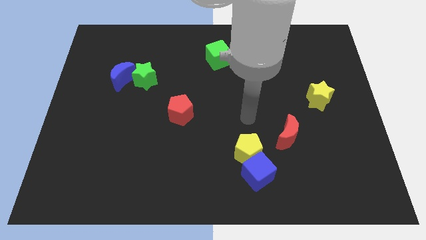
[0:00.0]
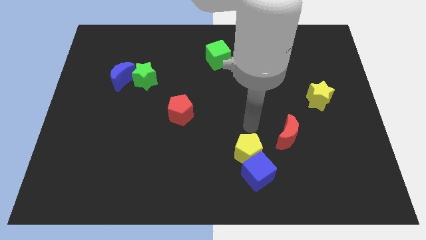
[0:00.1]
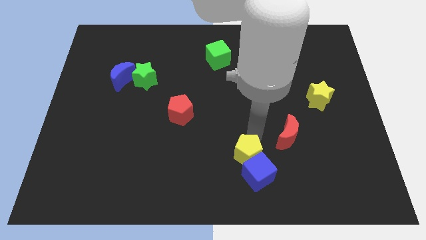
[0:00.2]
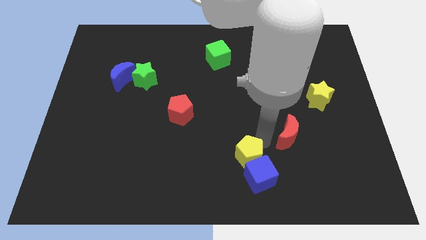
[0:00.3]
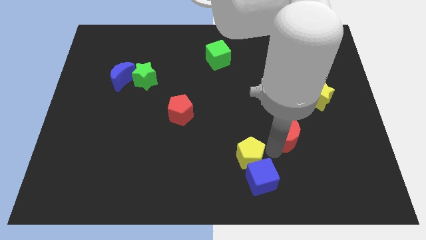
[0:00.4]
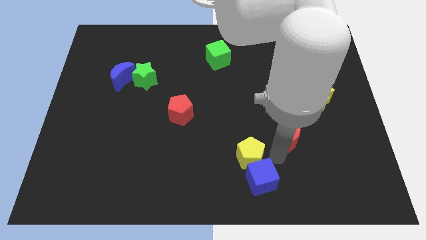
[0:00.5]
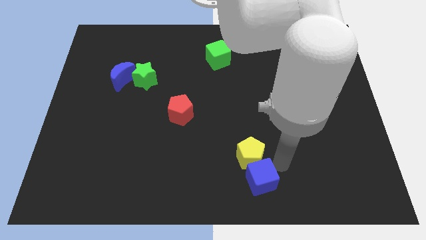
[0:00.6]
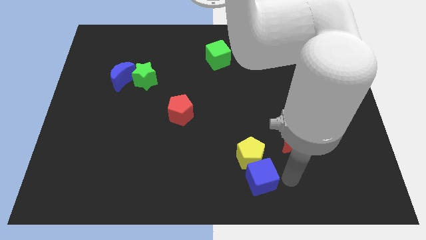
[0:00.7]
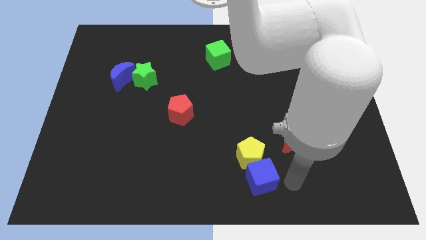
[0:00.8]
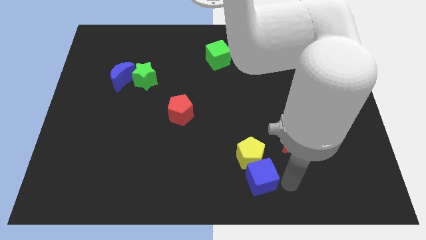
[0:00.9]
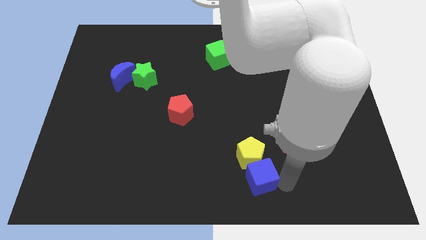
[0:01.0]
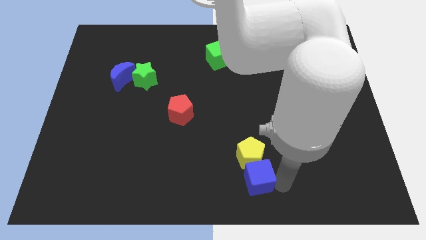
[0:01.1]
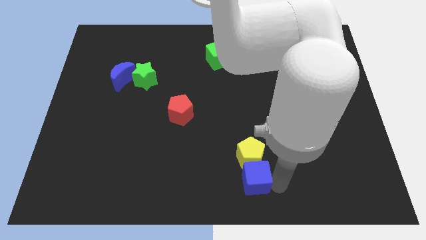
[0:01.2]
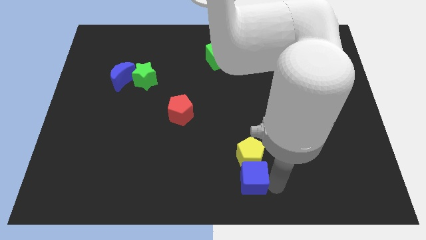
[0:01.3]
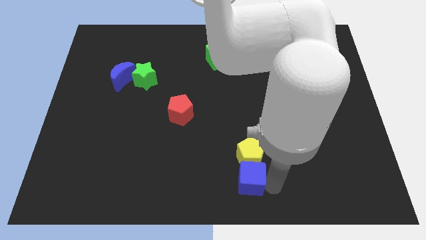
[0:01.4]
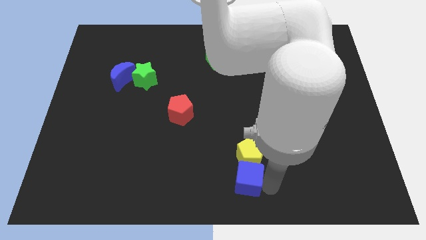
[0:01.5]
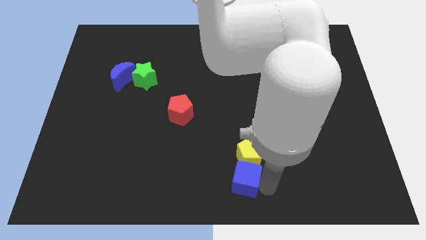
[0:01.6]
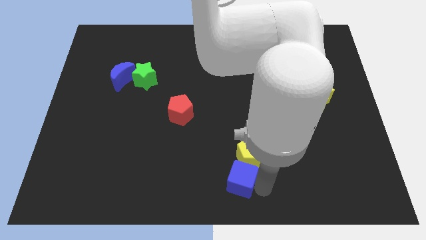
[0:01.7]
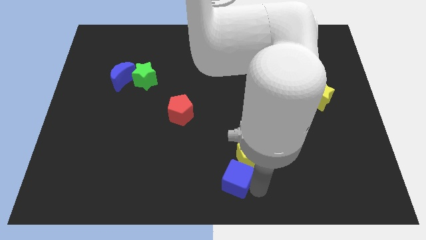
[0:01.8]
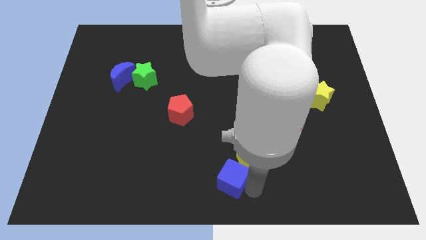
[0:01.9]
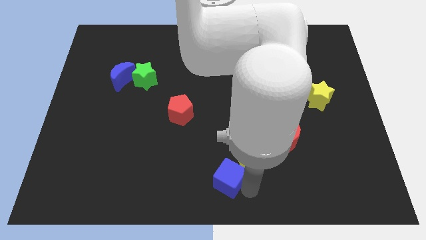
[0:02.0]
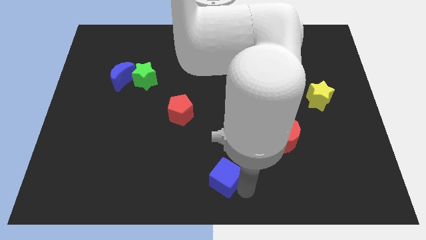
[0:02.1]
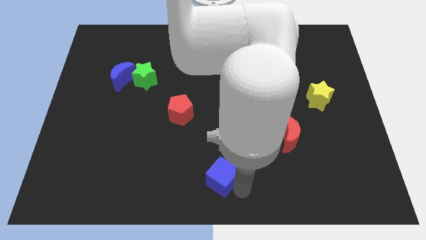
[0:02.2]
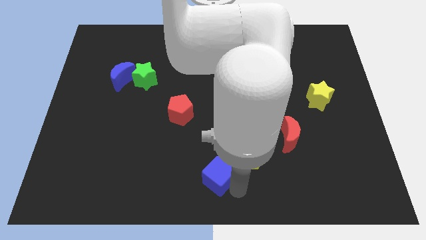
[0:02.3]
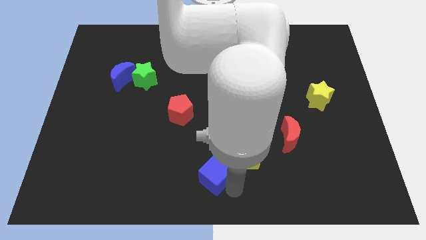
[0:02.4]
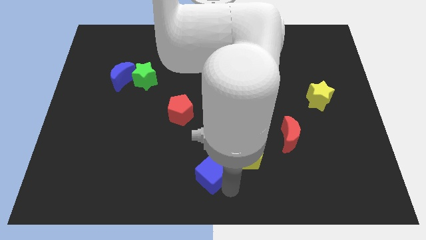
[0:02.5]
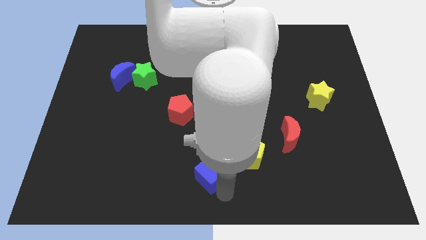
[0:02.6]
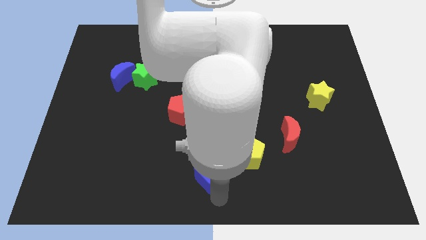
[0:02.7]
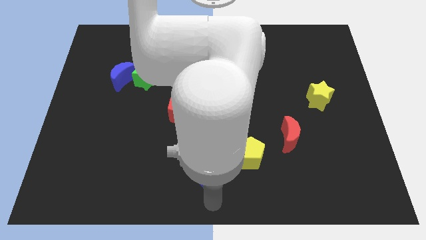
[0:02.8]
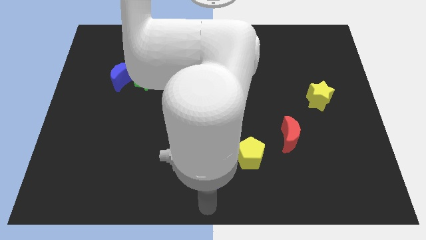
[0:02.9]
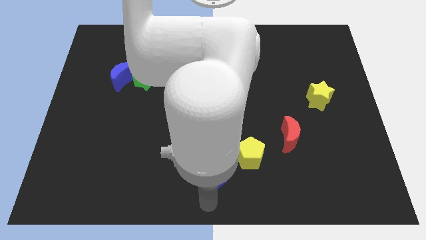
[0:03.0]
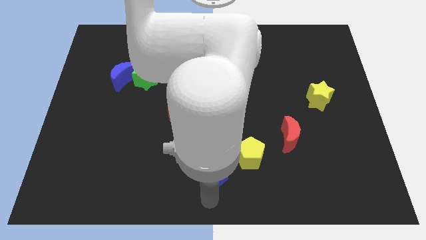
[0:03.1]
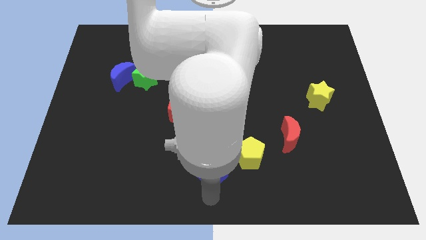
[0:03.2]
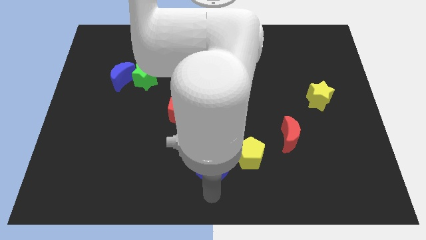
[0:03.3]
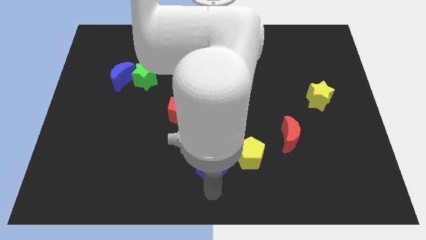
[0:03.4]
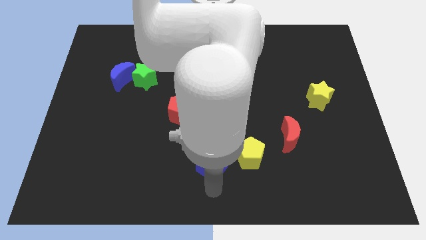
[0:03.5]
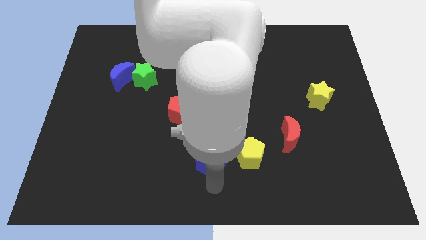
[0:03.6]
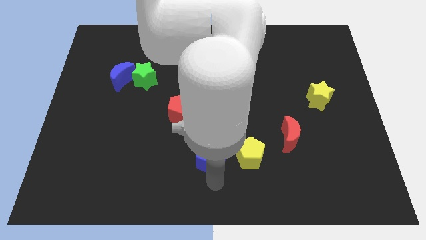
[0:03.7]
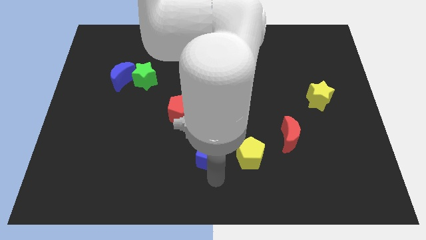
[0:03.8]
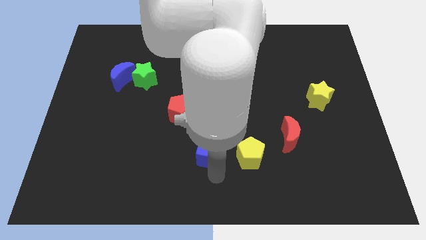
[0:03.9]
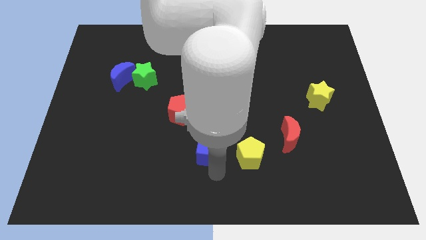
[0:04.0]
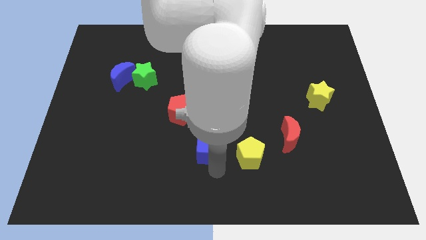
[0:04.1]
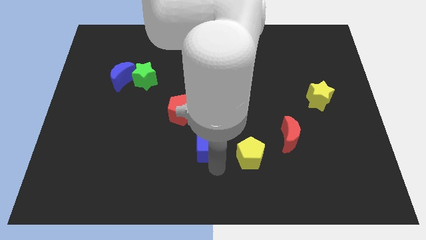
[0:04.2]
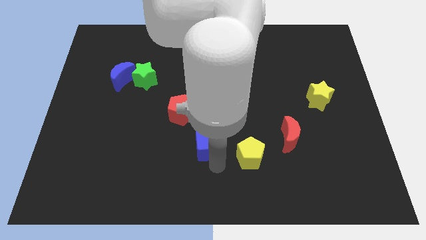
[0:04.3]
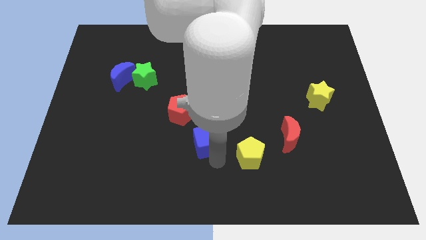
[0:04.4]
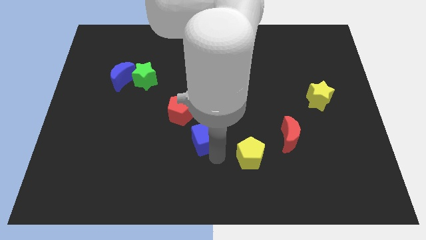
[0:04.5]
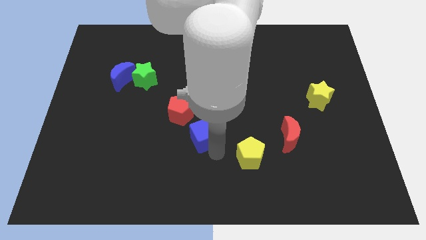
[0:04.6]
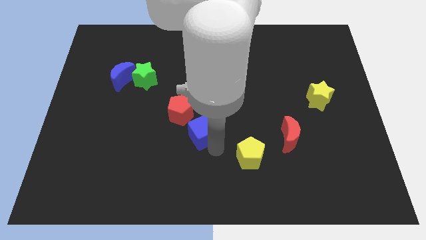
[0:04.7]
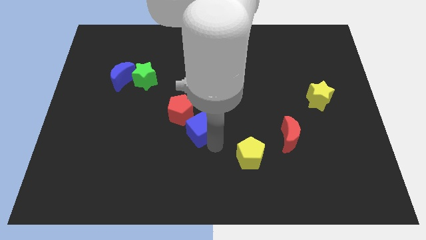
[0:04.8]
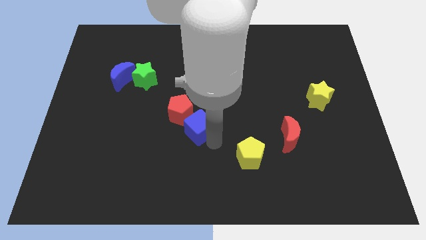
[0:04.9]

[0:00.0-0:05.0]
put the blue cube close to the red pentagon

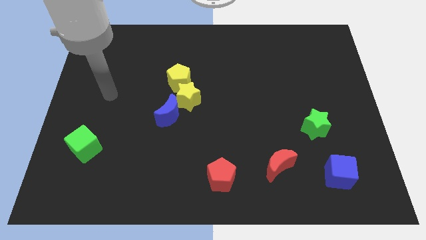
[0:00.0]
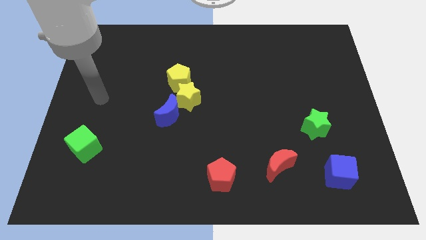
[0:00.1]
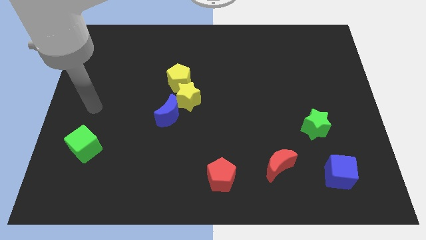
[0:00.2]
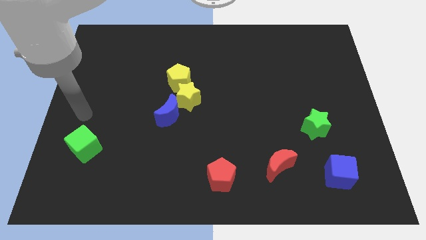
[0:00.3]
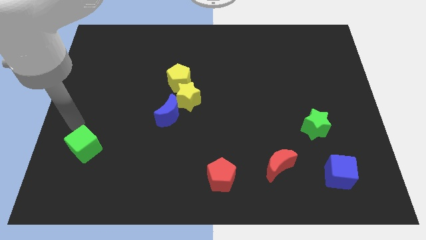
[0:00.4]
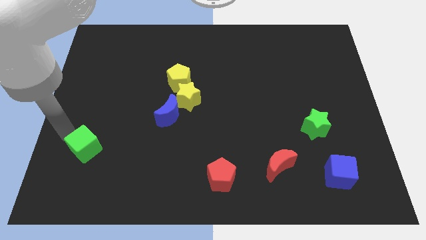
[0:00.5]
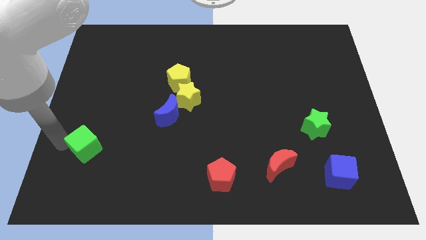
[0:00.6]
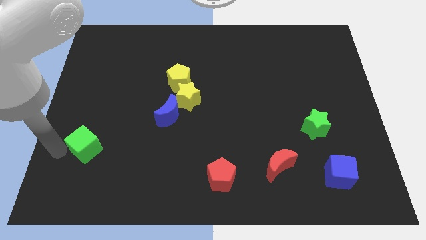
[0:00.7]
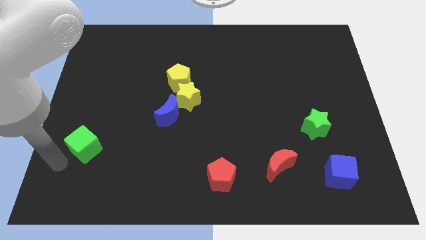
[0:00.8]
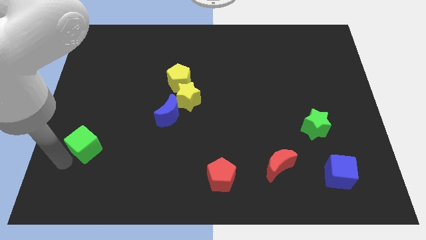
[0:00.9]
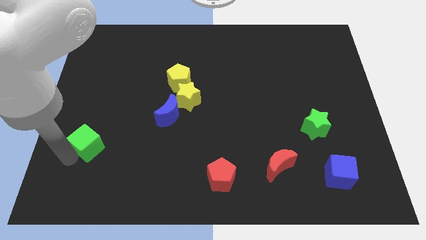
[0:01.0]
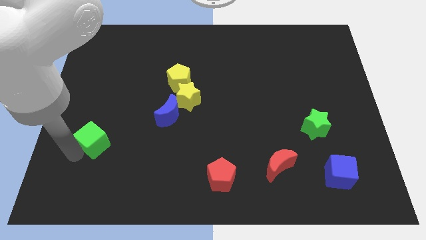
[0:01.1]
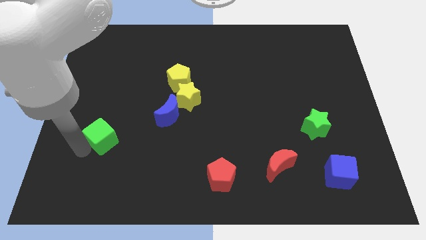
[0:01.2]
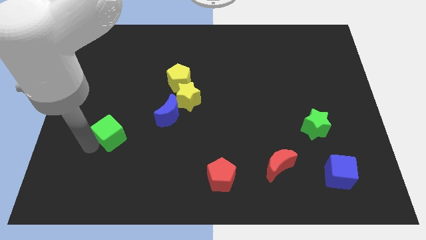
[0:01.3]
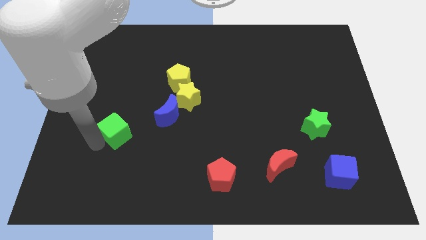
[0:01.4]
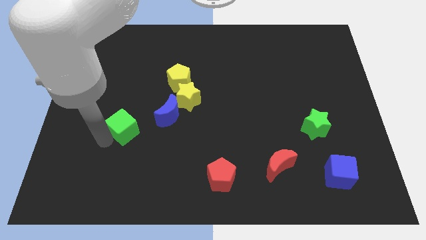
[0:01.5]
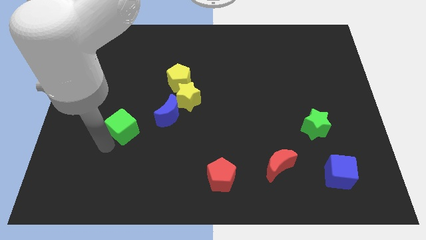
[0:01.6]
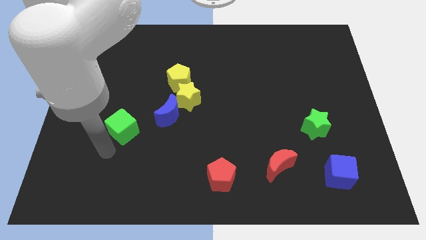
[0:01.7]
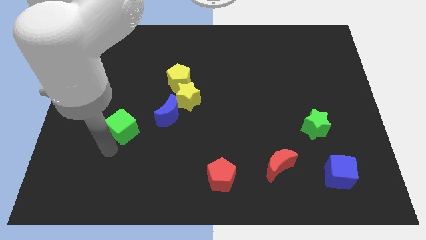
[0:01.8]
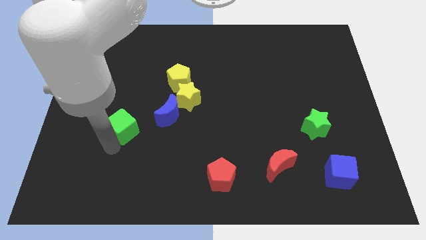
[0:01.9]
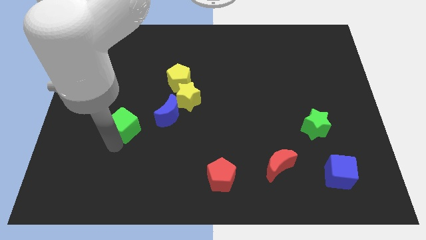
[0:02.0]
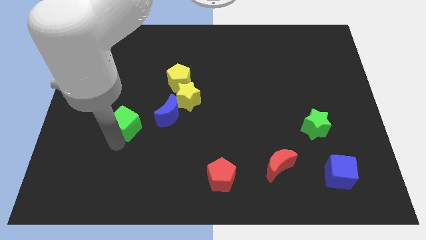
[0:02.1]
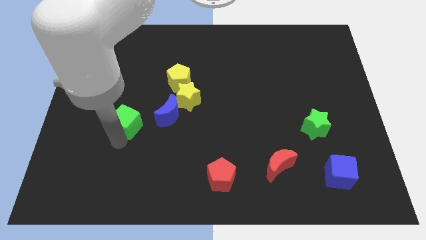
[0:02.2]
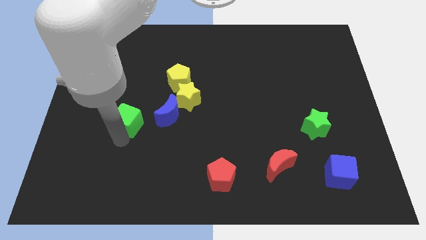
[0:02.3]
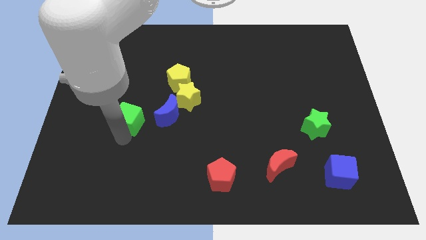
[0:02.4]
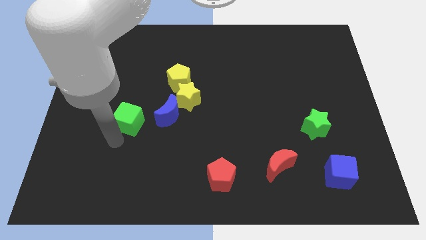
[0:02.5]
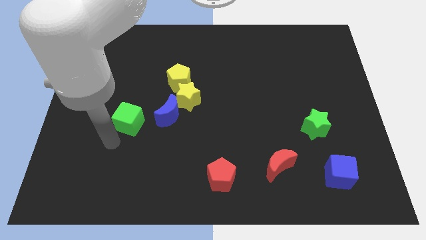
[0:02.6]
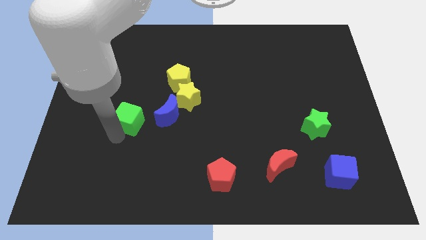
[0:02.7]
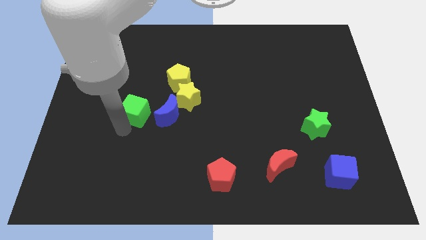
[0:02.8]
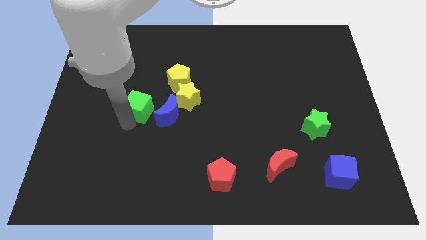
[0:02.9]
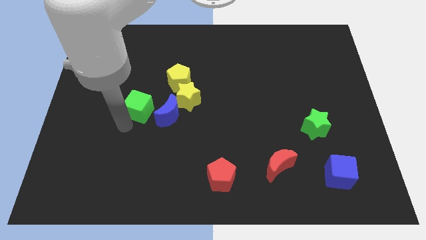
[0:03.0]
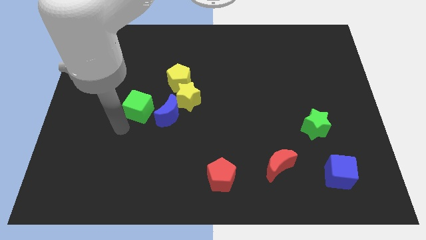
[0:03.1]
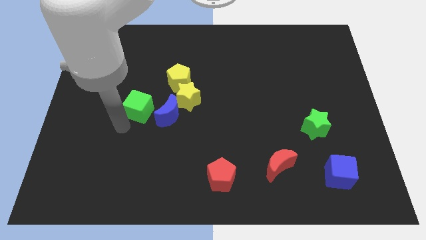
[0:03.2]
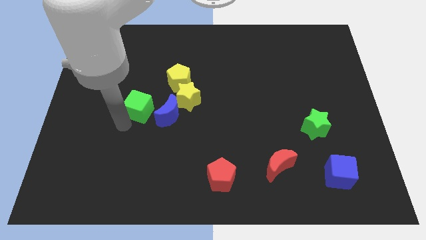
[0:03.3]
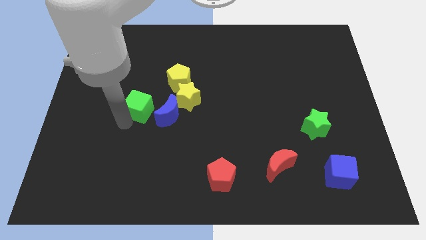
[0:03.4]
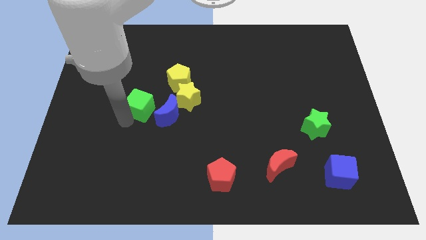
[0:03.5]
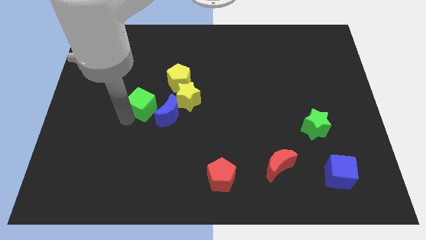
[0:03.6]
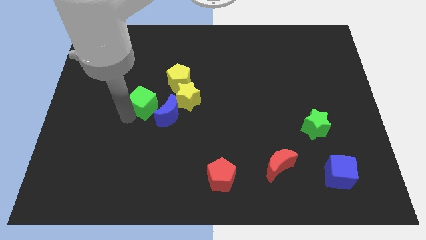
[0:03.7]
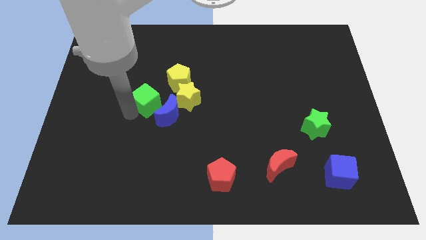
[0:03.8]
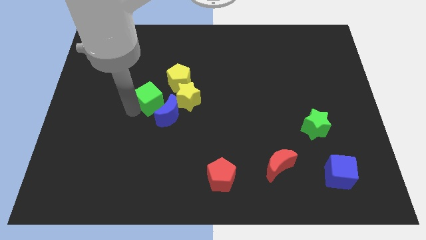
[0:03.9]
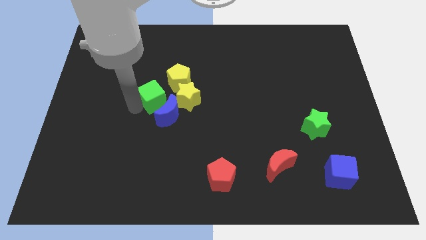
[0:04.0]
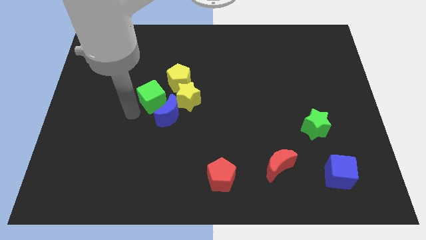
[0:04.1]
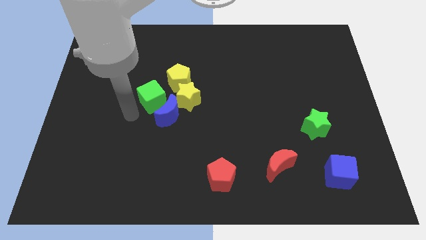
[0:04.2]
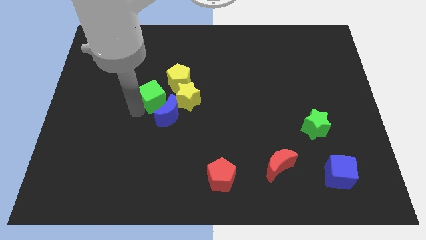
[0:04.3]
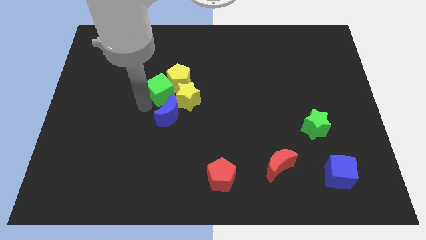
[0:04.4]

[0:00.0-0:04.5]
put the green cube to the yellow pentagon
